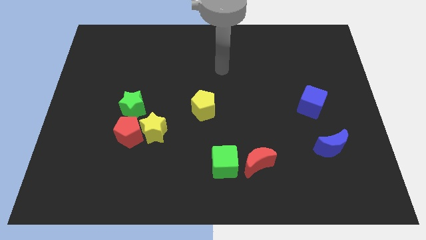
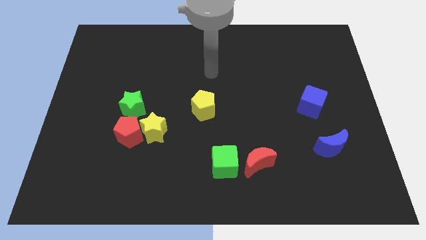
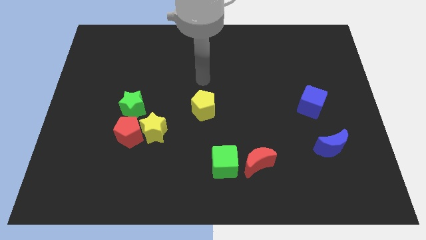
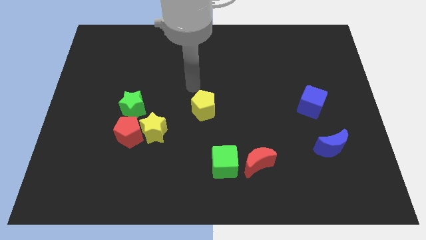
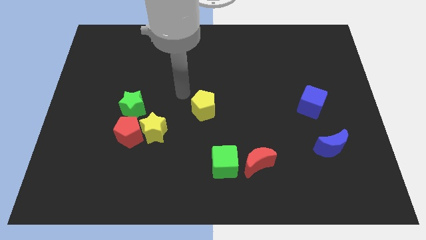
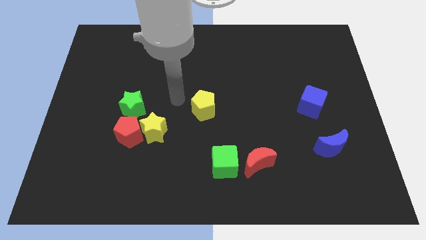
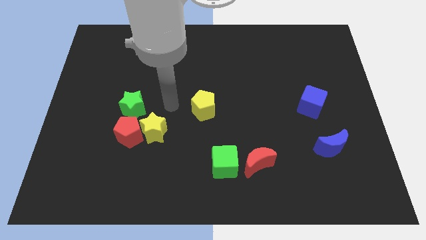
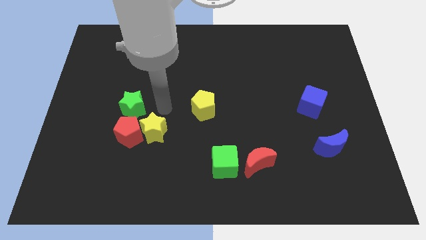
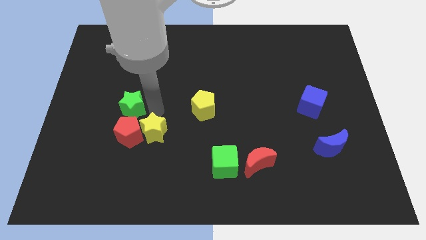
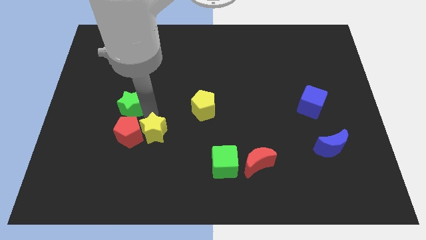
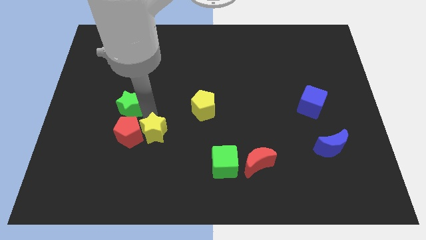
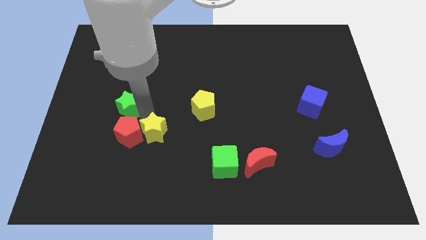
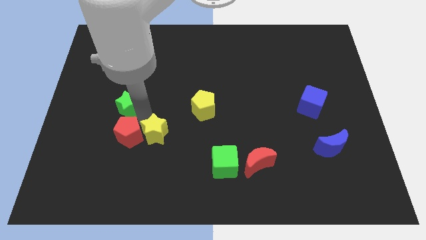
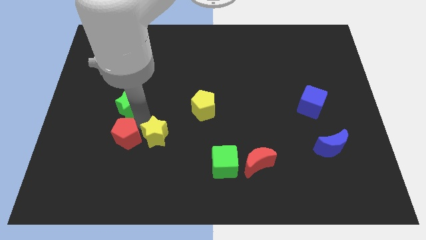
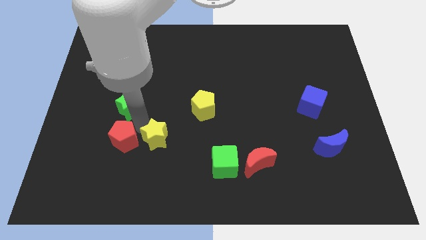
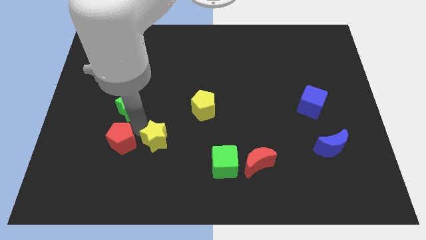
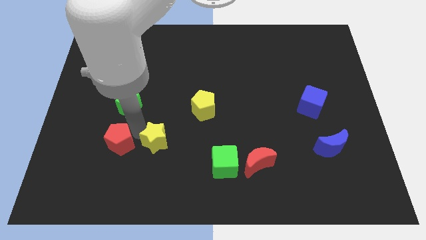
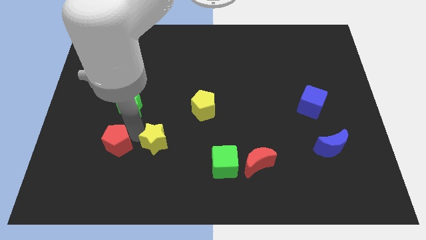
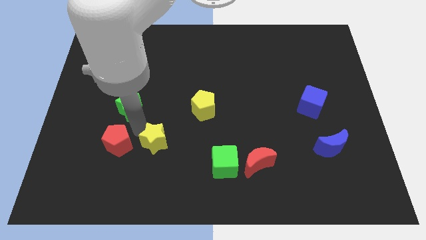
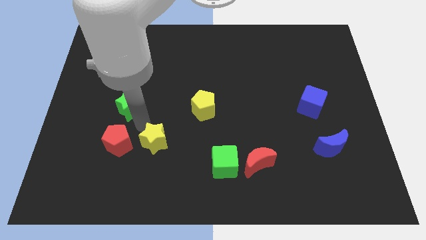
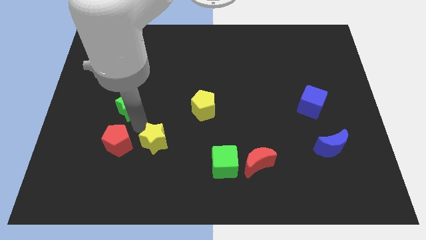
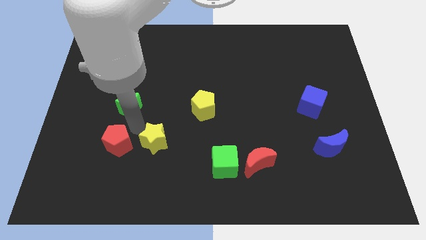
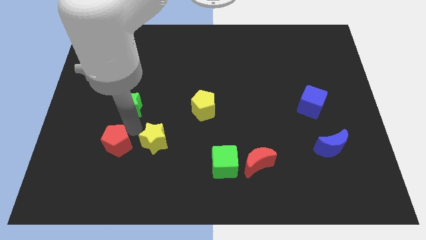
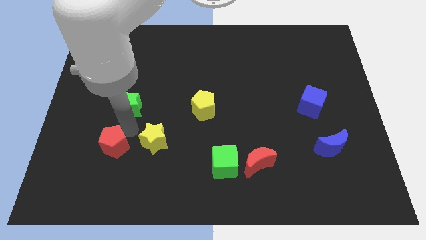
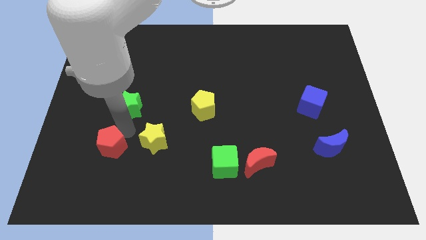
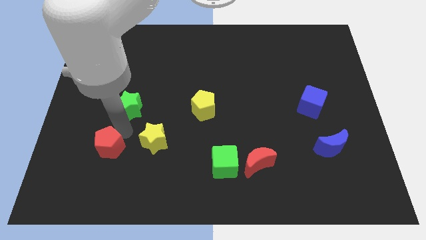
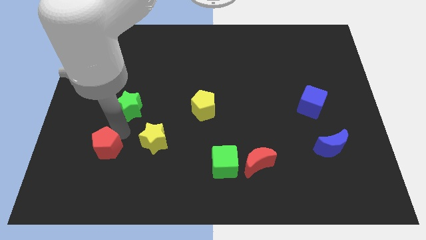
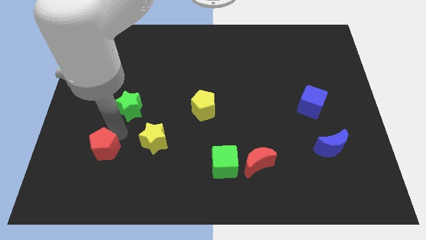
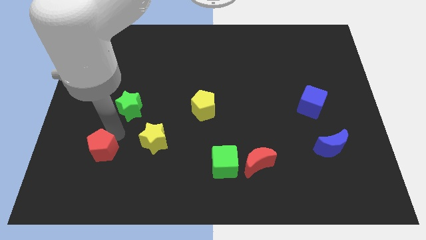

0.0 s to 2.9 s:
move the red pentagon away from the yellow star and green star

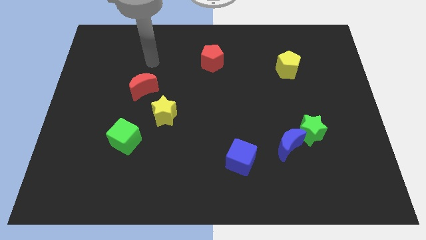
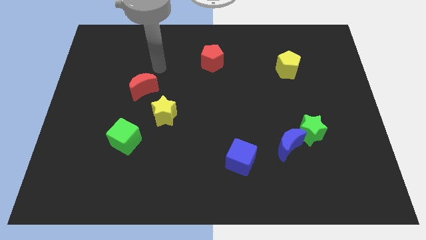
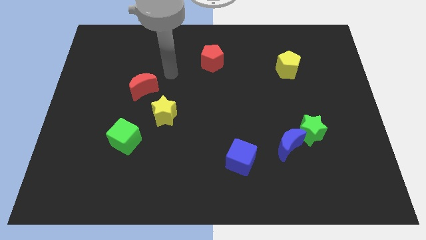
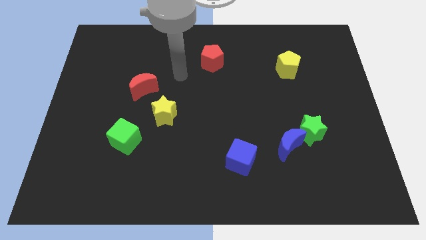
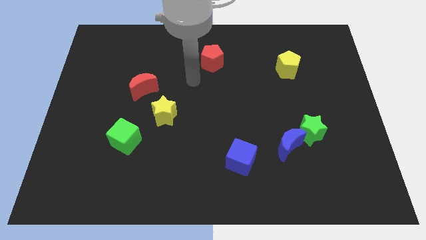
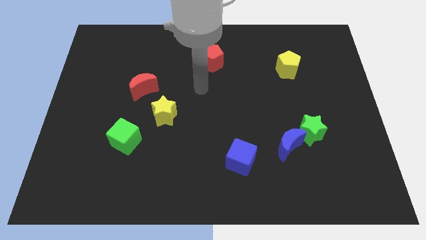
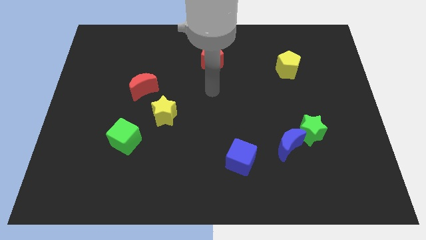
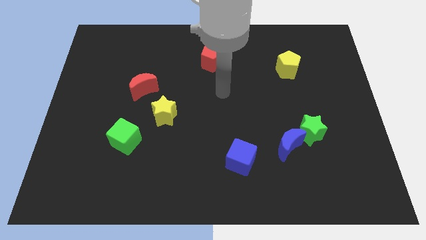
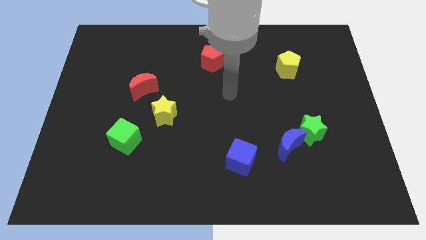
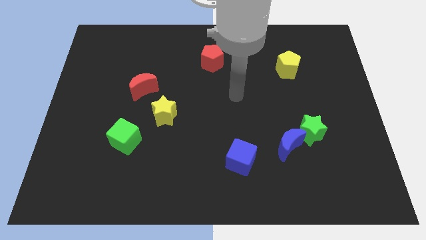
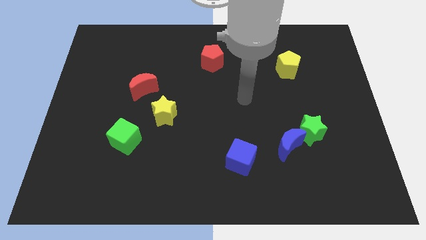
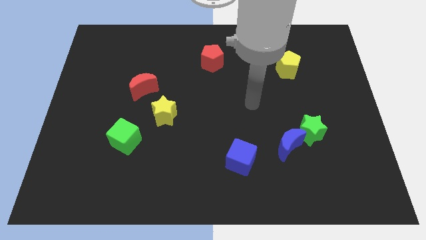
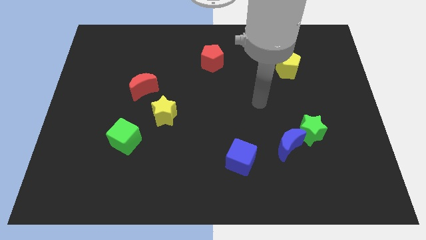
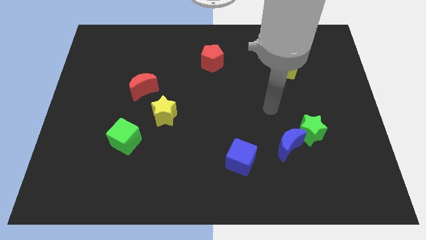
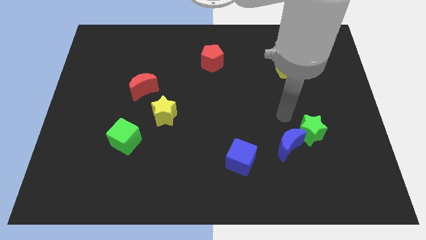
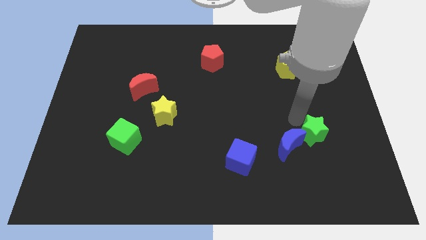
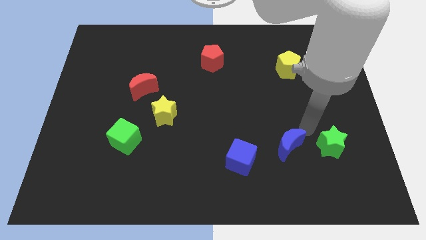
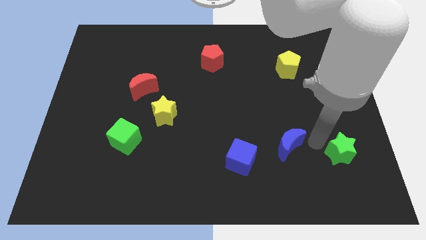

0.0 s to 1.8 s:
separate the blue moon from the green star

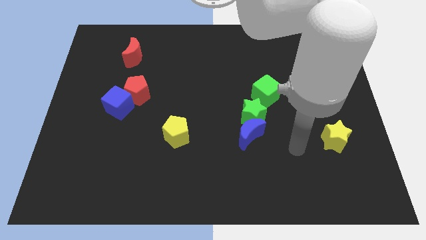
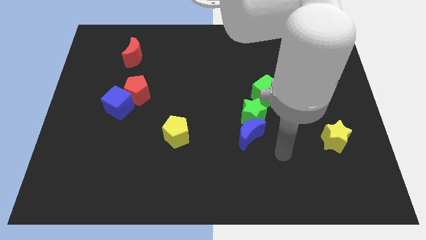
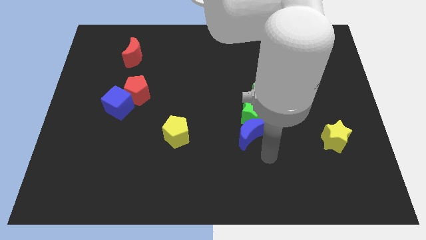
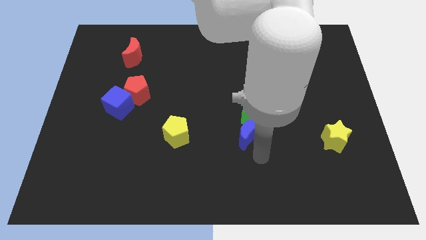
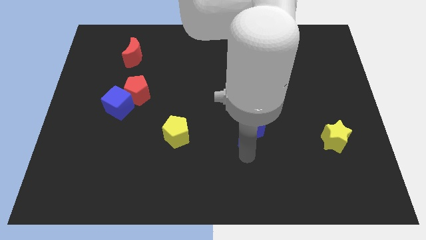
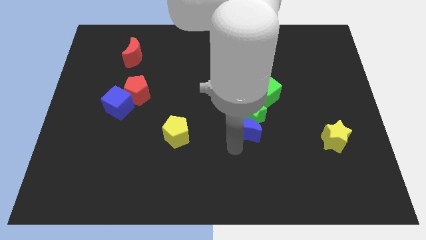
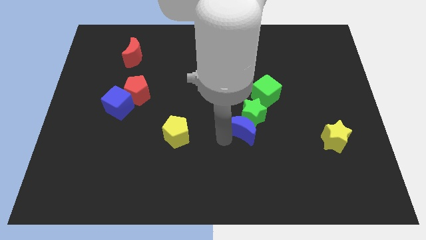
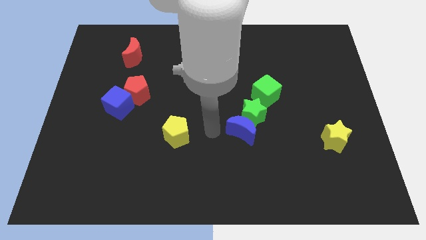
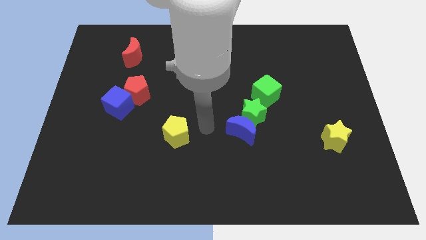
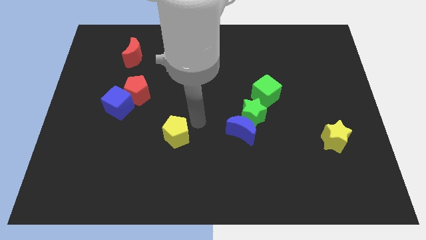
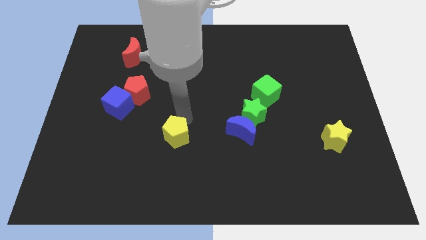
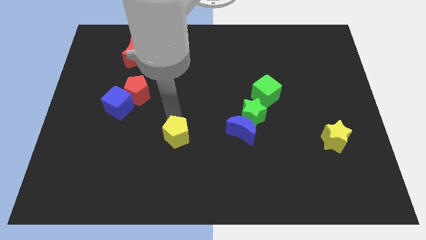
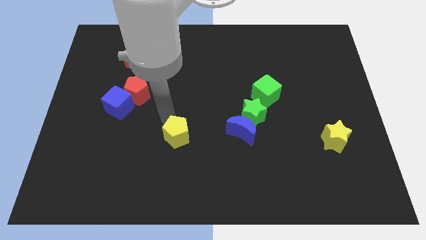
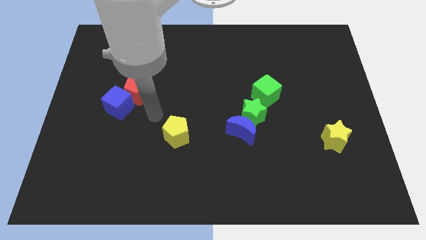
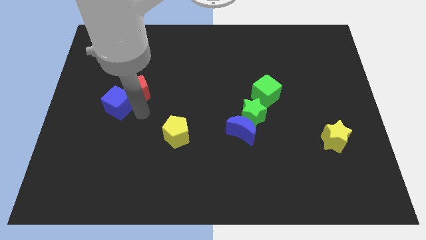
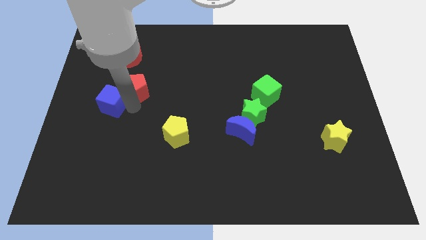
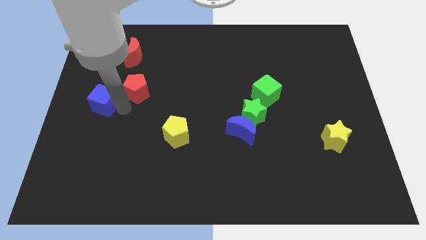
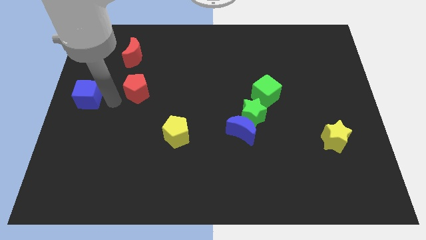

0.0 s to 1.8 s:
separate the red pentagon from the blue cube

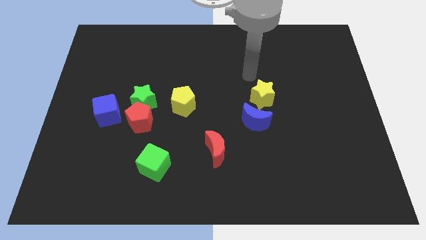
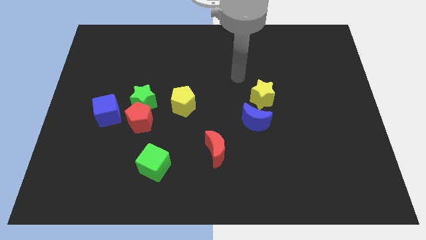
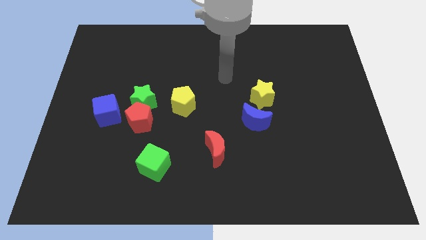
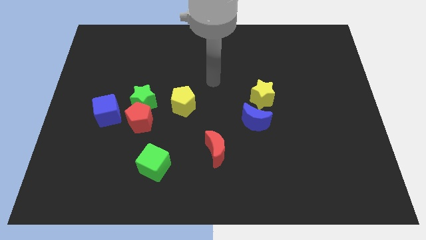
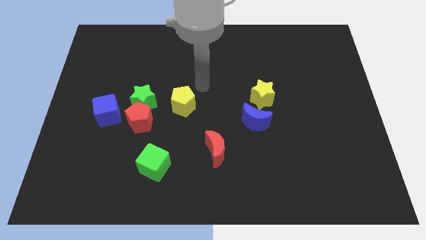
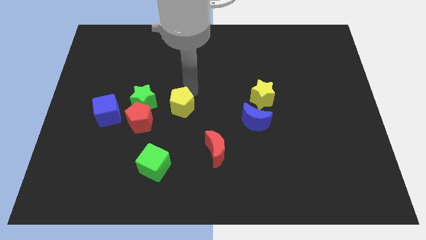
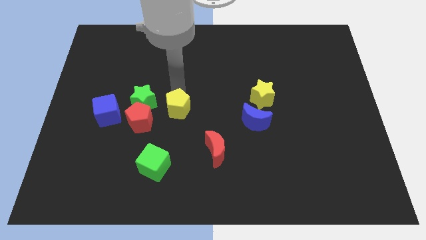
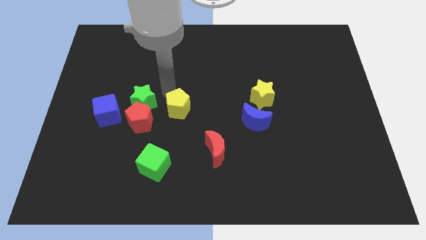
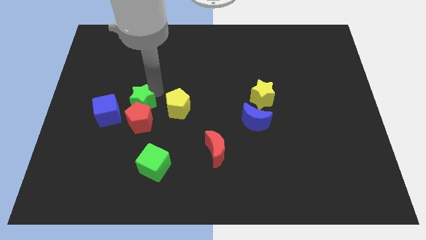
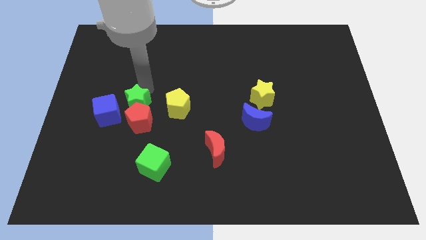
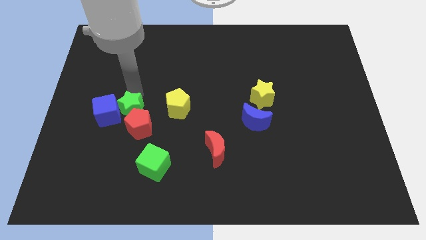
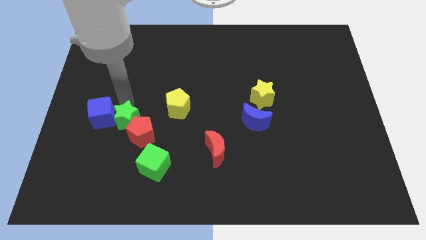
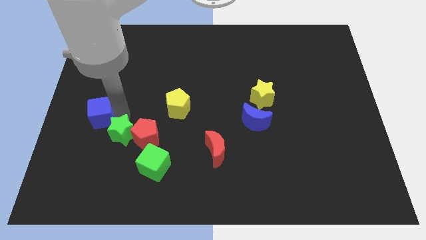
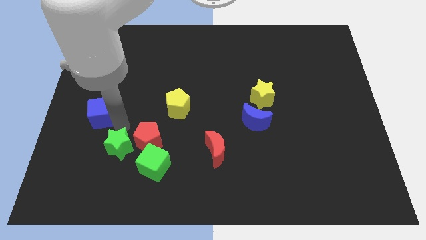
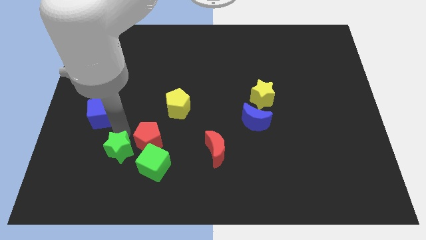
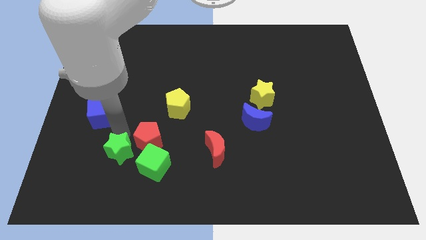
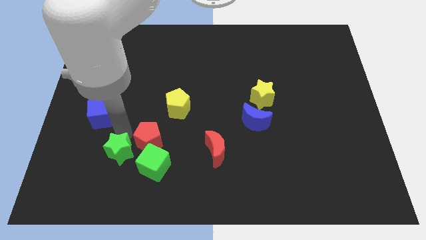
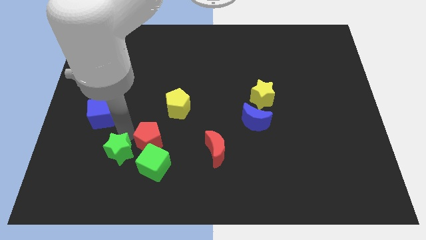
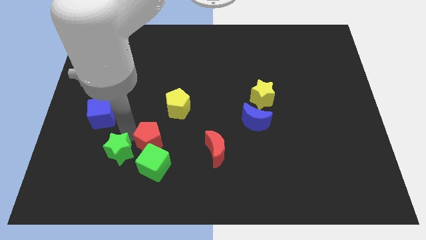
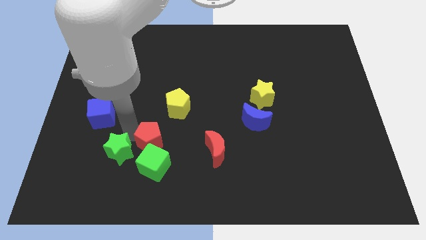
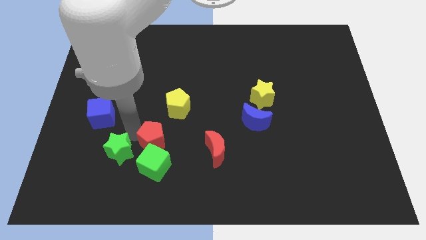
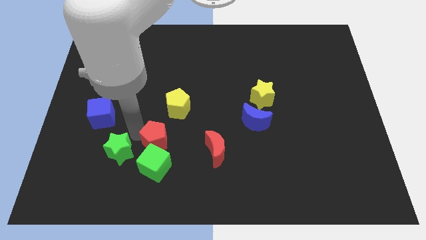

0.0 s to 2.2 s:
pull the red pentagon apart from the green star and blue cube

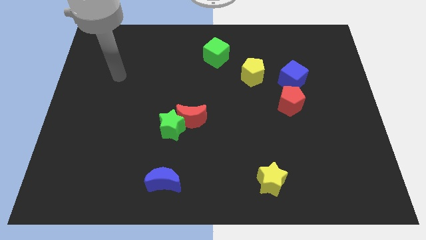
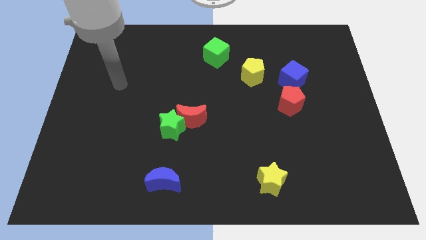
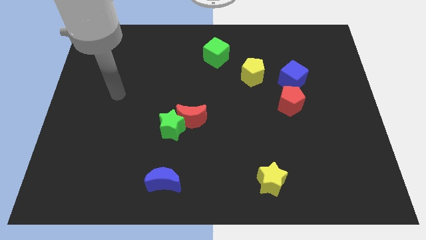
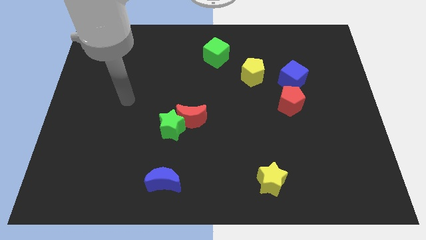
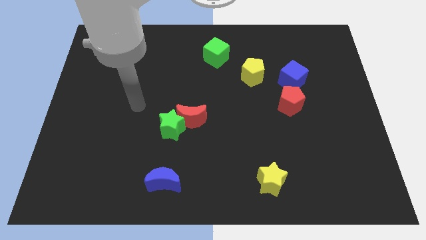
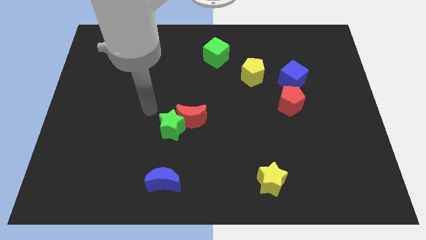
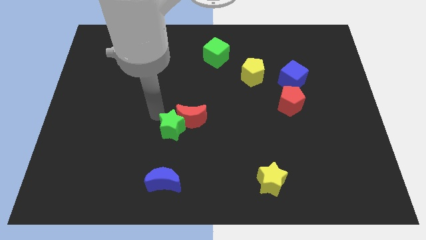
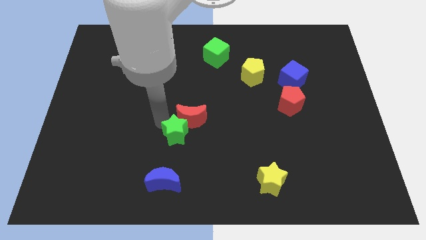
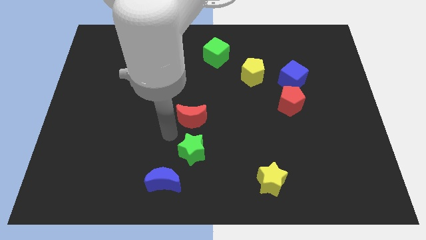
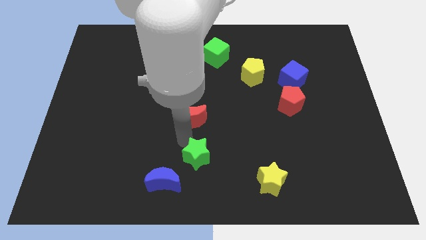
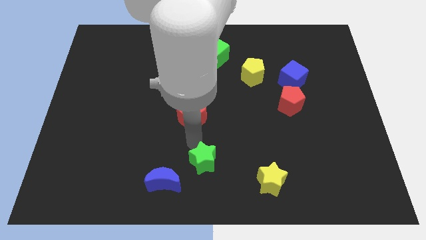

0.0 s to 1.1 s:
separate the red moon from the green star
